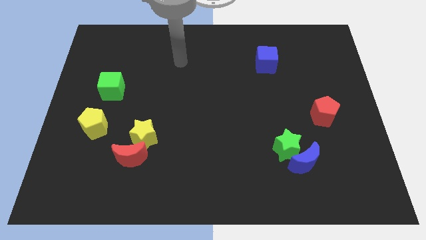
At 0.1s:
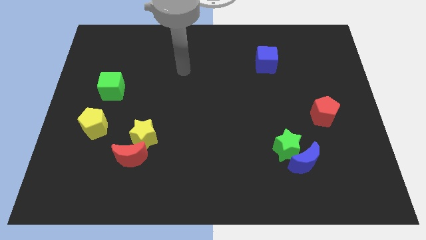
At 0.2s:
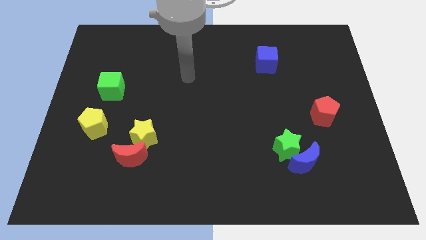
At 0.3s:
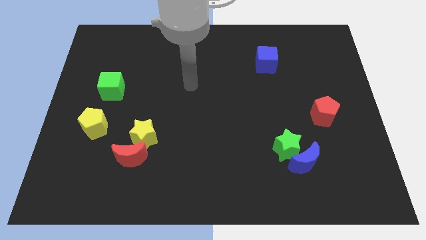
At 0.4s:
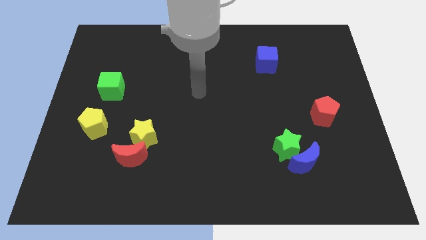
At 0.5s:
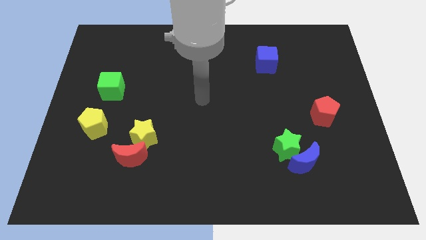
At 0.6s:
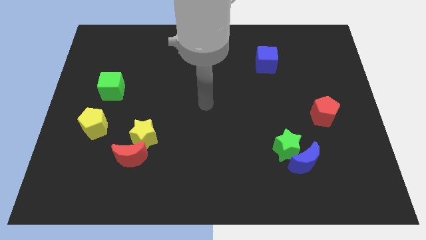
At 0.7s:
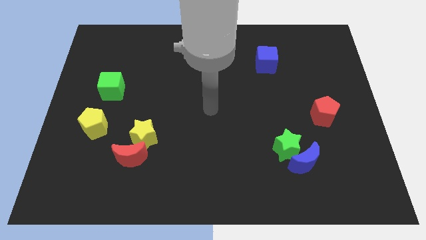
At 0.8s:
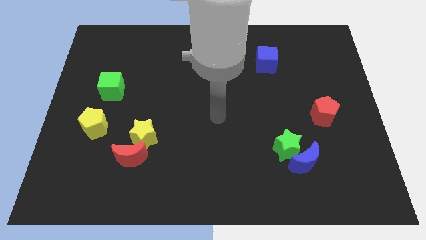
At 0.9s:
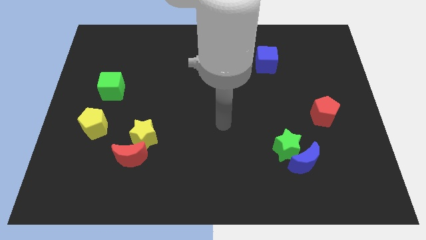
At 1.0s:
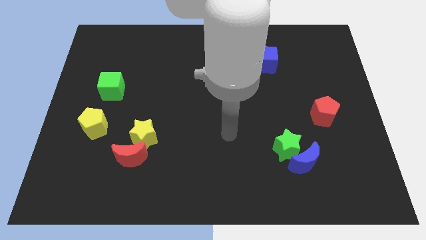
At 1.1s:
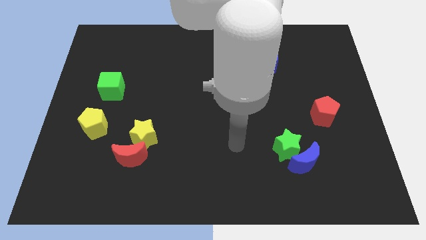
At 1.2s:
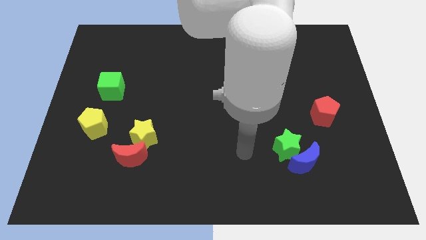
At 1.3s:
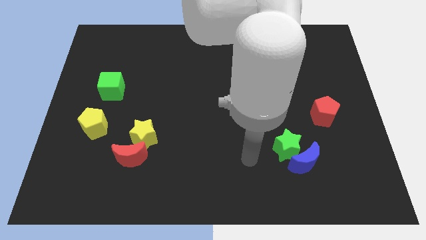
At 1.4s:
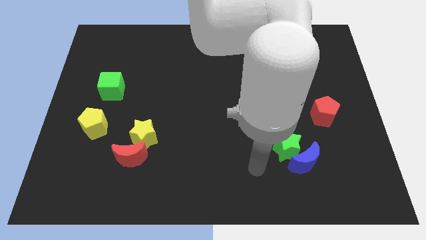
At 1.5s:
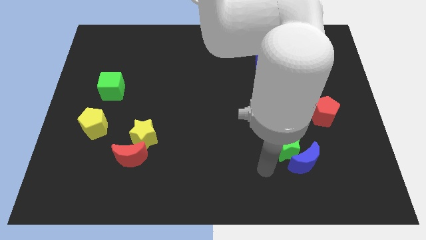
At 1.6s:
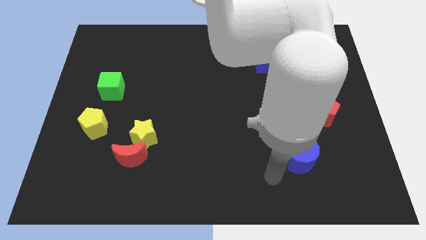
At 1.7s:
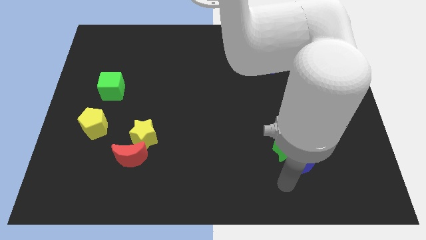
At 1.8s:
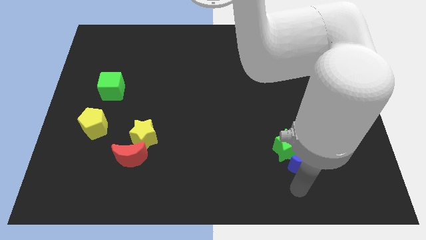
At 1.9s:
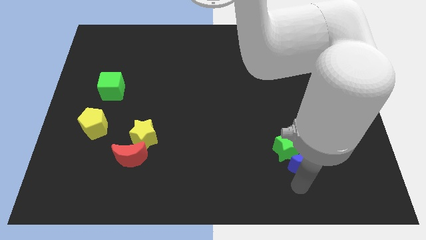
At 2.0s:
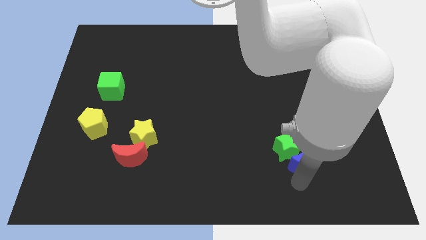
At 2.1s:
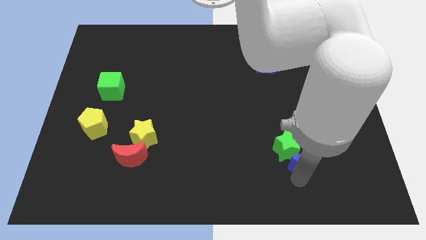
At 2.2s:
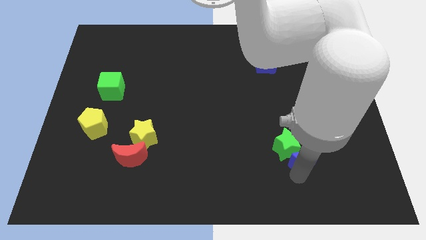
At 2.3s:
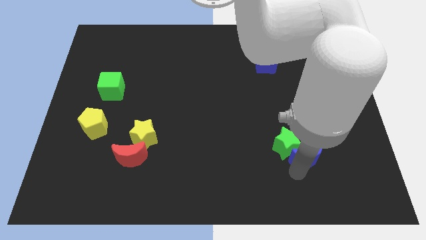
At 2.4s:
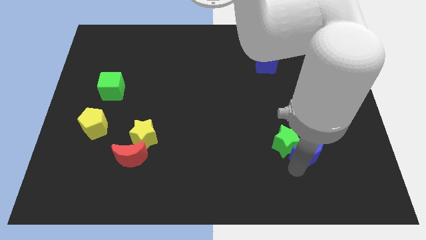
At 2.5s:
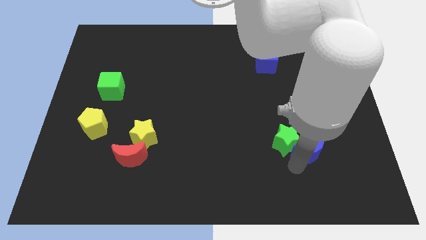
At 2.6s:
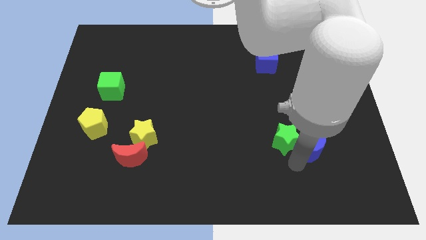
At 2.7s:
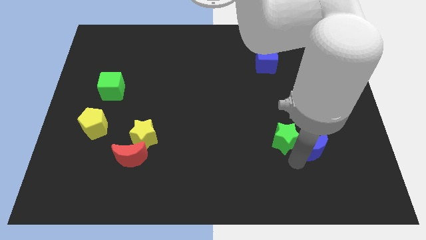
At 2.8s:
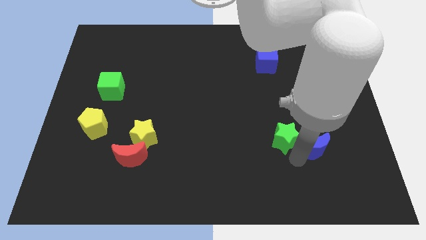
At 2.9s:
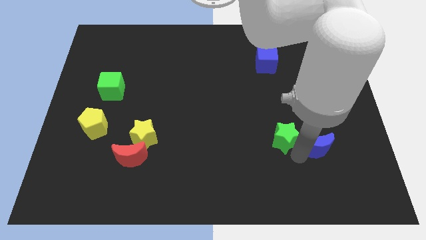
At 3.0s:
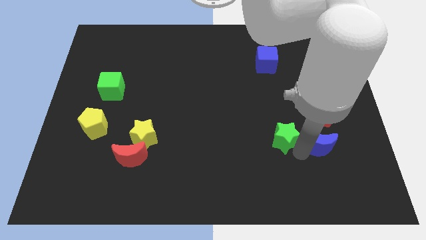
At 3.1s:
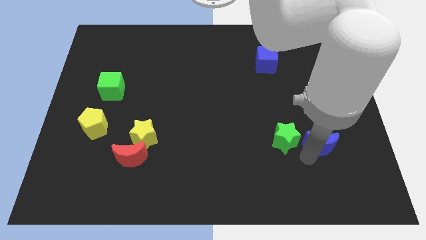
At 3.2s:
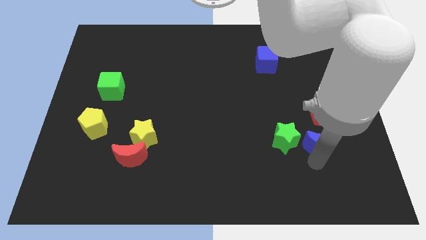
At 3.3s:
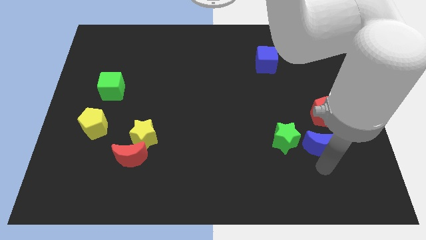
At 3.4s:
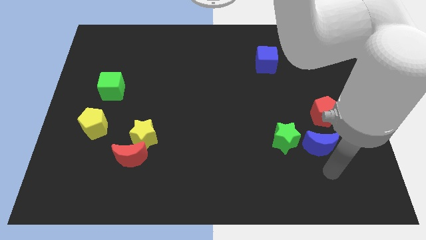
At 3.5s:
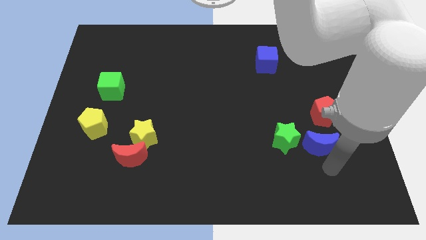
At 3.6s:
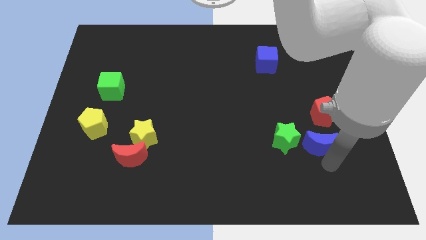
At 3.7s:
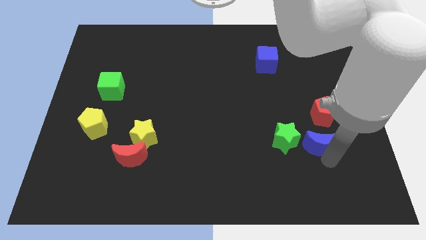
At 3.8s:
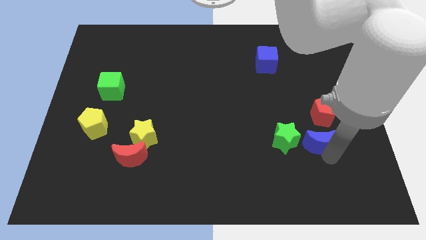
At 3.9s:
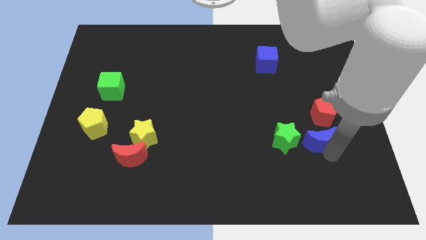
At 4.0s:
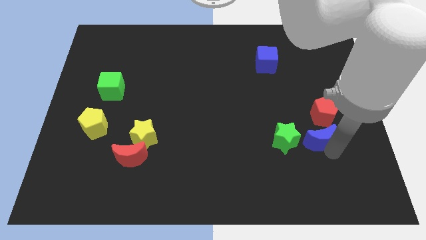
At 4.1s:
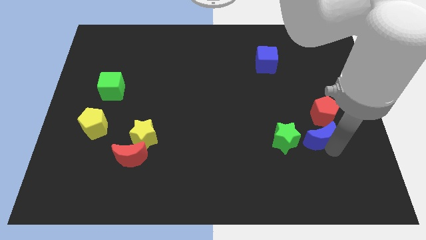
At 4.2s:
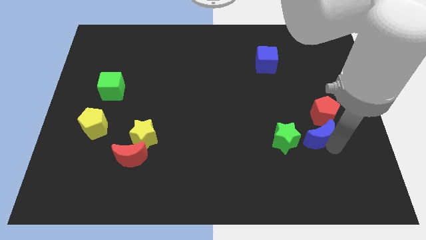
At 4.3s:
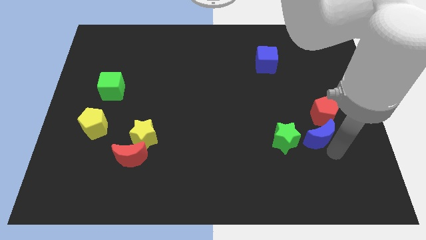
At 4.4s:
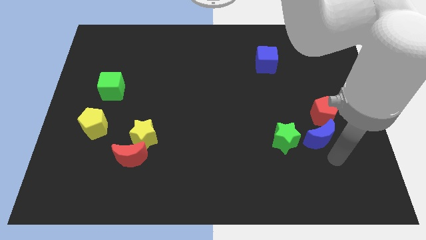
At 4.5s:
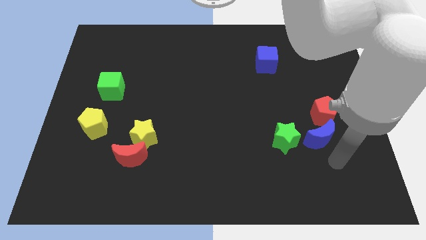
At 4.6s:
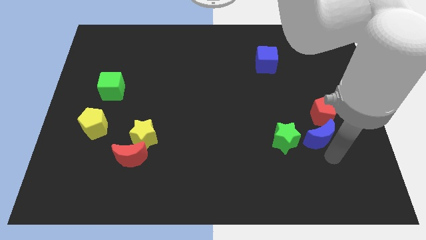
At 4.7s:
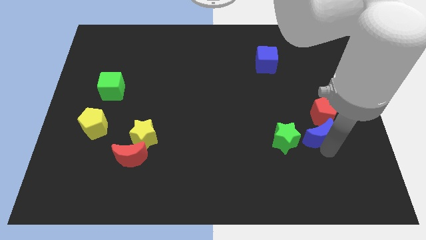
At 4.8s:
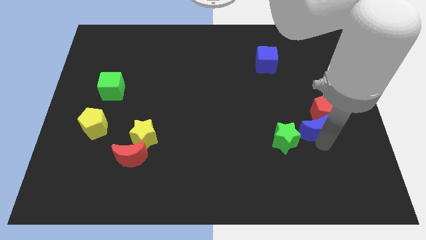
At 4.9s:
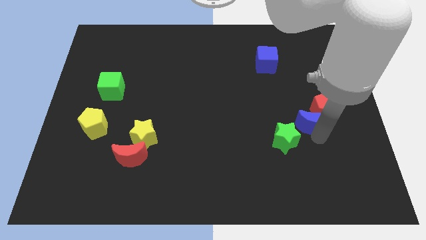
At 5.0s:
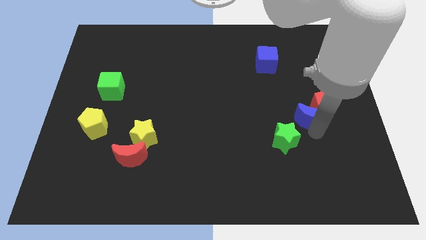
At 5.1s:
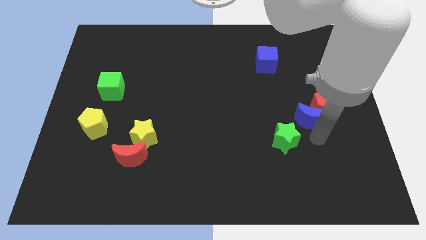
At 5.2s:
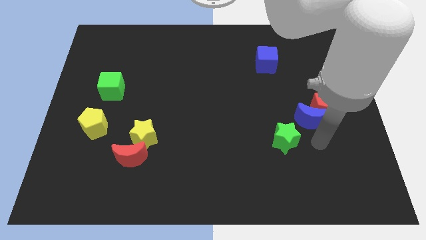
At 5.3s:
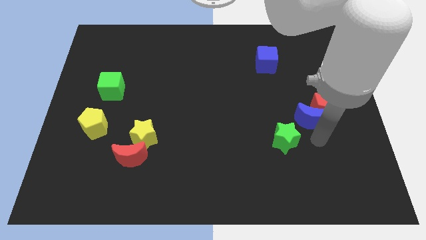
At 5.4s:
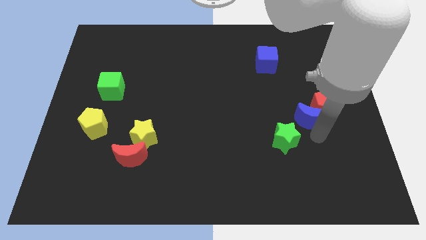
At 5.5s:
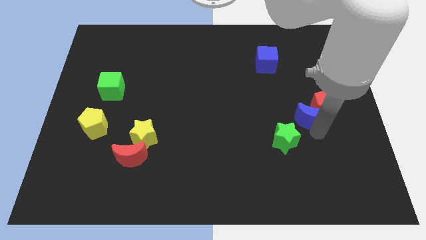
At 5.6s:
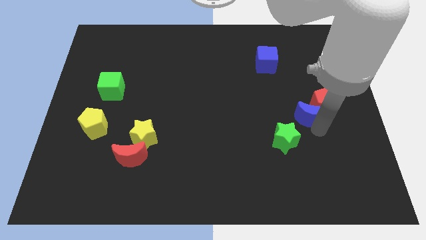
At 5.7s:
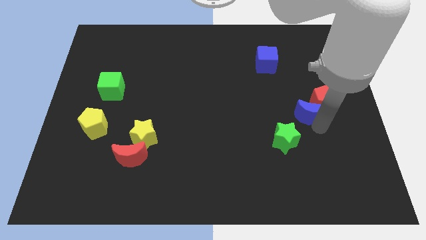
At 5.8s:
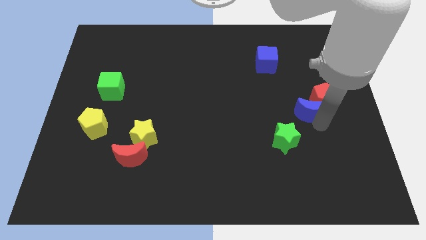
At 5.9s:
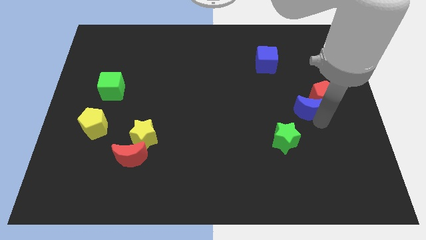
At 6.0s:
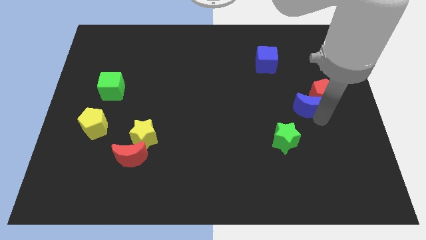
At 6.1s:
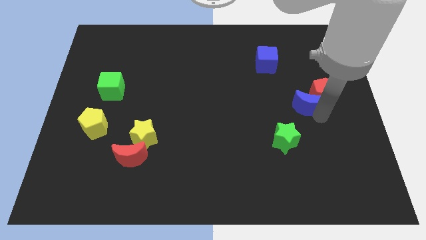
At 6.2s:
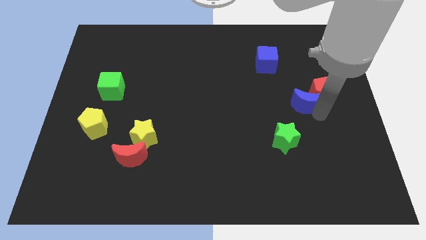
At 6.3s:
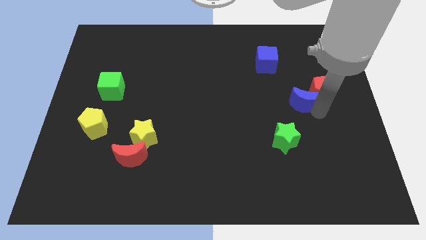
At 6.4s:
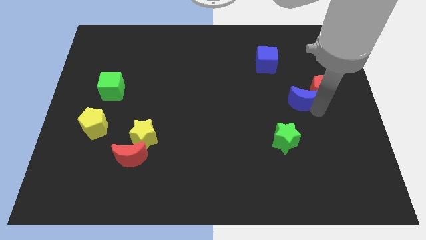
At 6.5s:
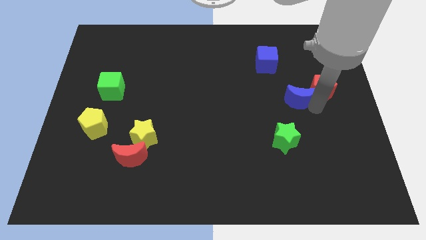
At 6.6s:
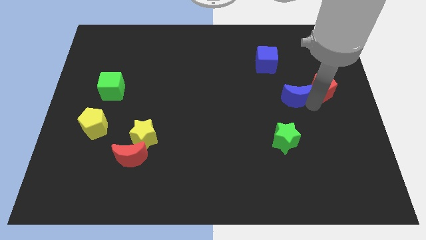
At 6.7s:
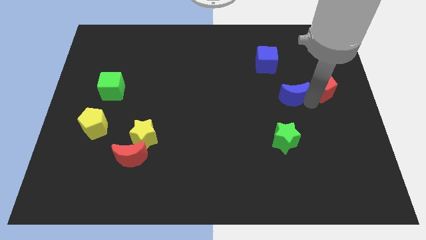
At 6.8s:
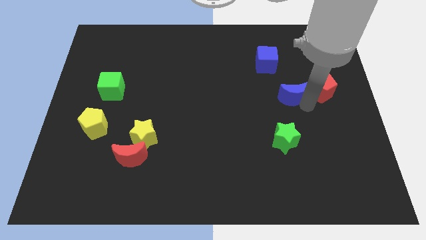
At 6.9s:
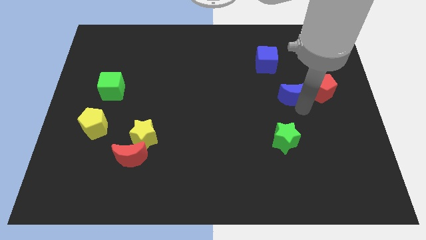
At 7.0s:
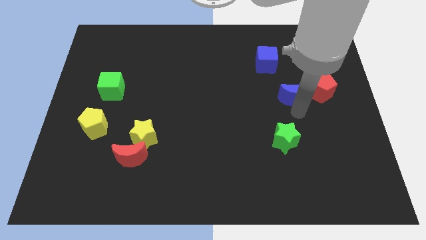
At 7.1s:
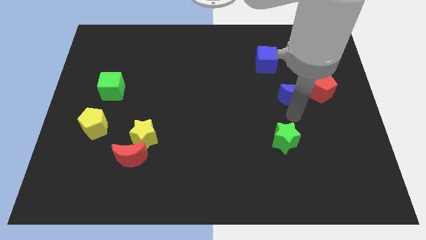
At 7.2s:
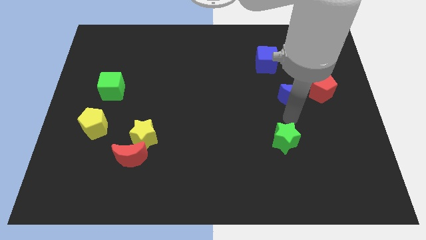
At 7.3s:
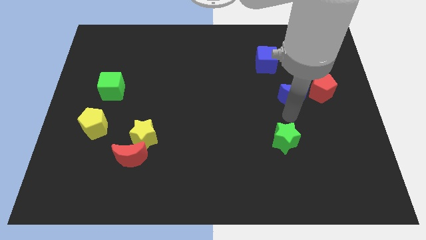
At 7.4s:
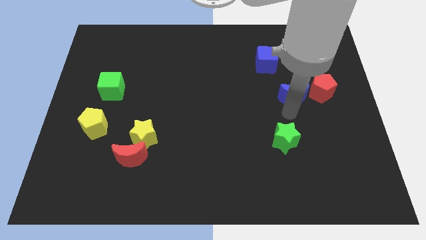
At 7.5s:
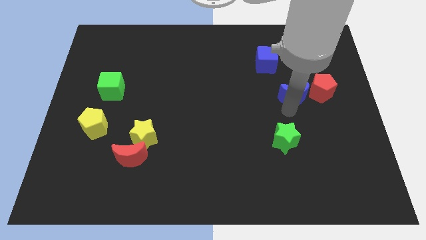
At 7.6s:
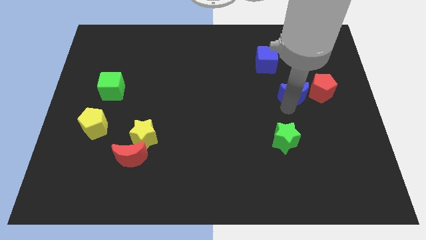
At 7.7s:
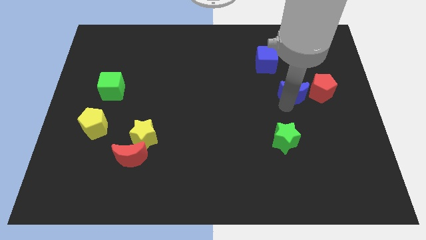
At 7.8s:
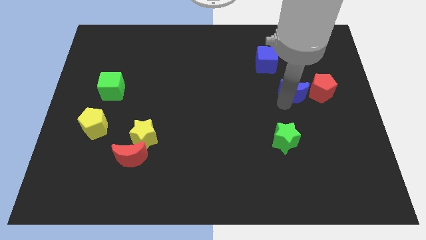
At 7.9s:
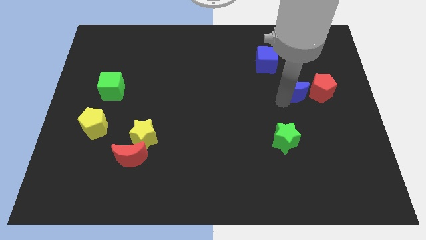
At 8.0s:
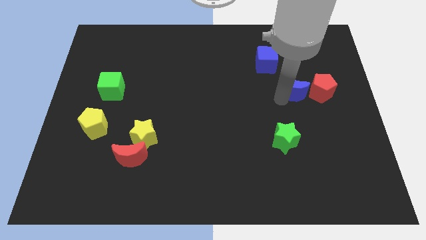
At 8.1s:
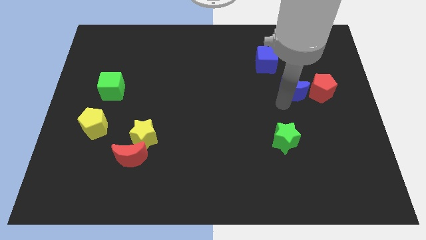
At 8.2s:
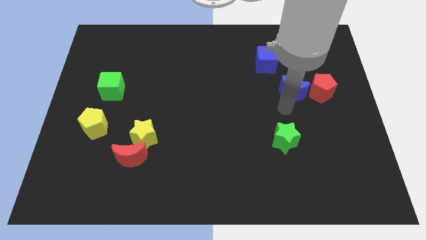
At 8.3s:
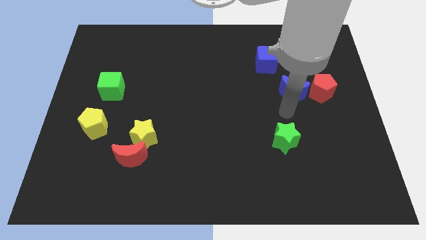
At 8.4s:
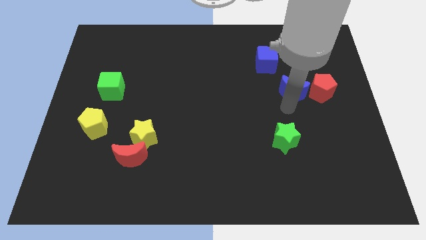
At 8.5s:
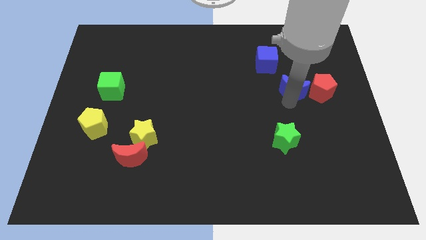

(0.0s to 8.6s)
push the blue moon upwards
